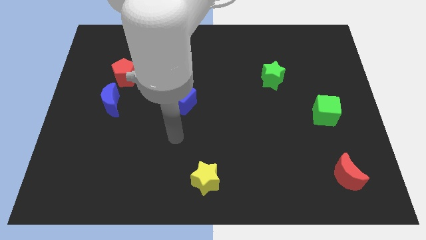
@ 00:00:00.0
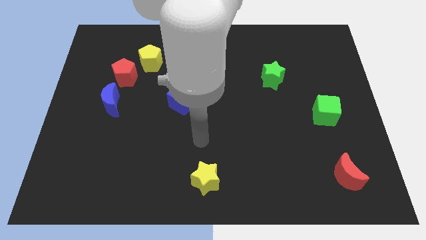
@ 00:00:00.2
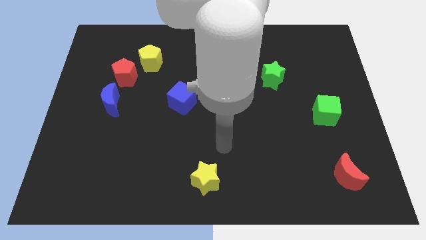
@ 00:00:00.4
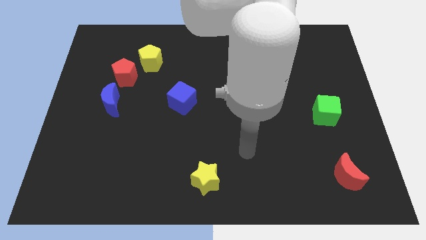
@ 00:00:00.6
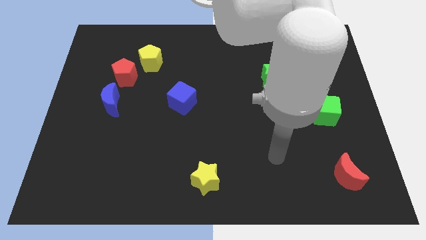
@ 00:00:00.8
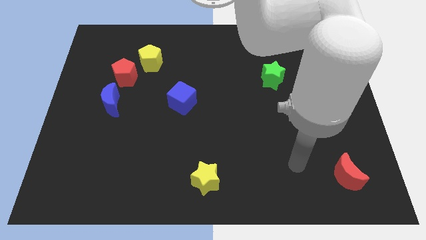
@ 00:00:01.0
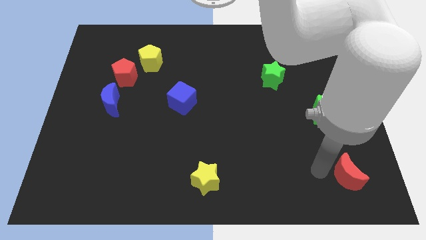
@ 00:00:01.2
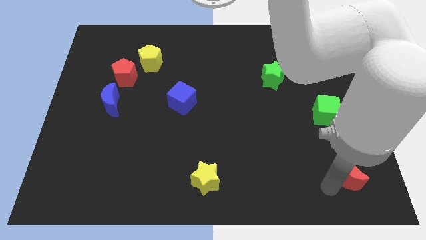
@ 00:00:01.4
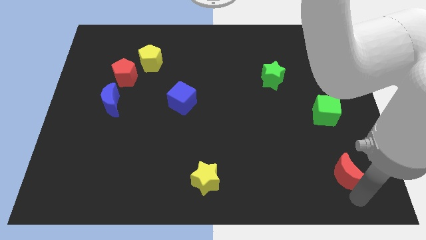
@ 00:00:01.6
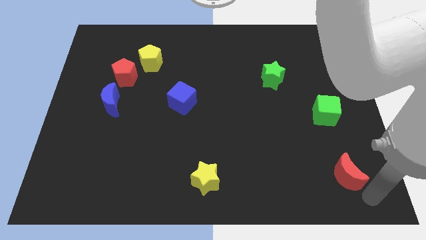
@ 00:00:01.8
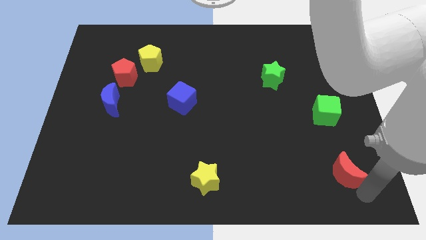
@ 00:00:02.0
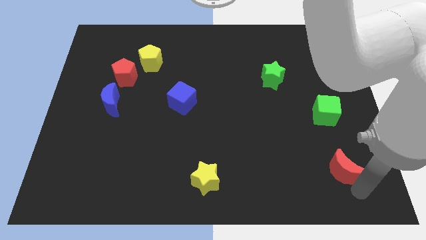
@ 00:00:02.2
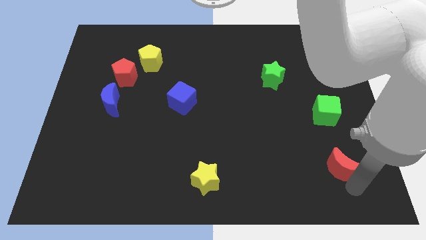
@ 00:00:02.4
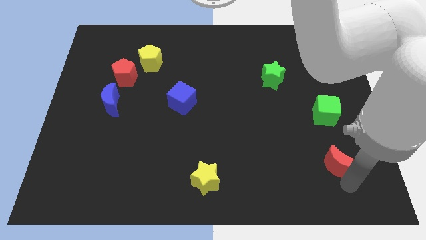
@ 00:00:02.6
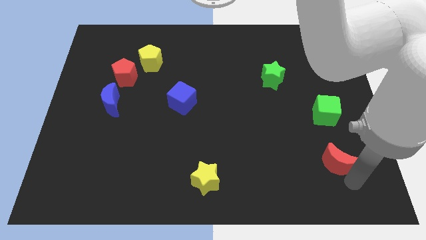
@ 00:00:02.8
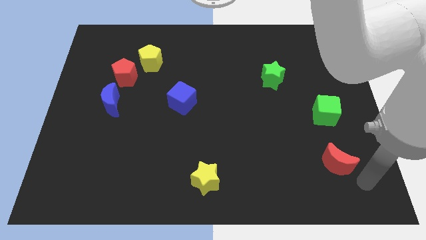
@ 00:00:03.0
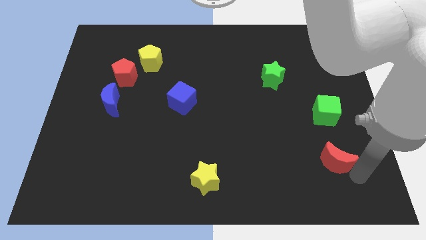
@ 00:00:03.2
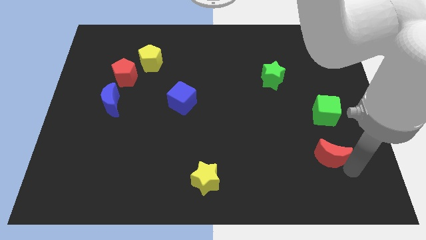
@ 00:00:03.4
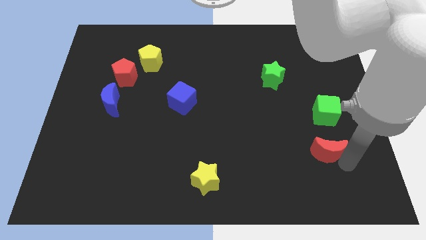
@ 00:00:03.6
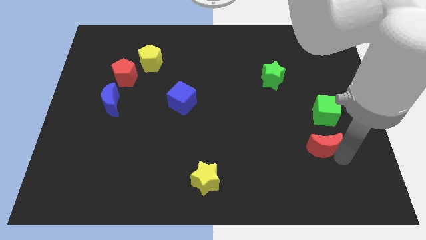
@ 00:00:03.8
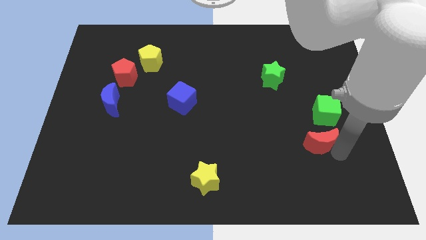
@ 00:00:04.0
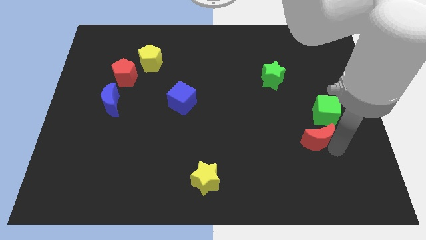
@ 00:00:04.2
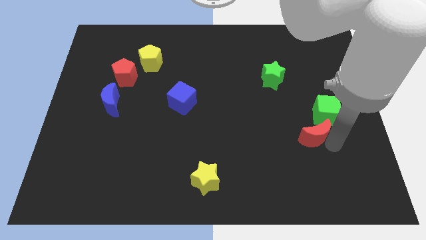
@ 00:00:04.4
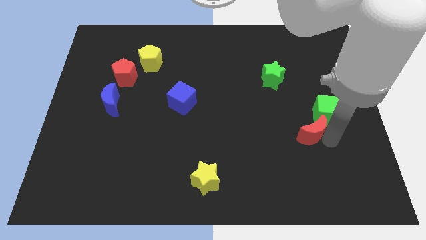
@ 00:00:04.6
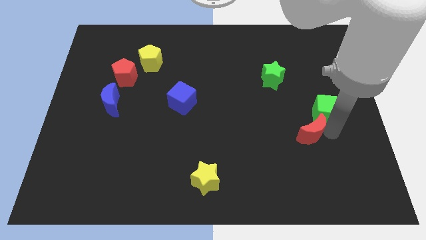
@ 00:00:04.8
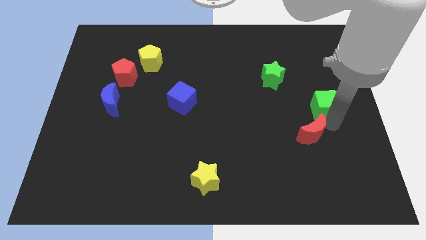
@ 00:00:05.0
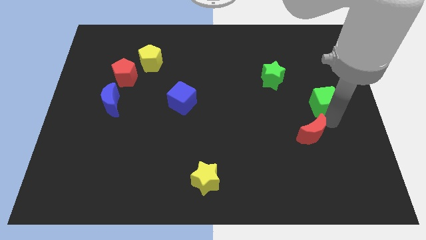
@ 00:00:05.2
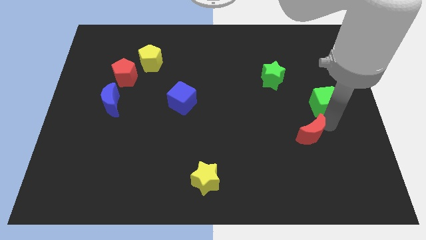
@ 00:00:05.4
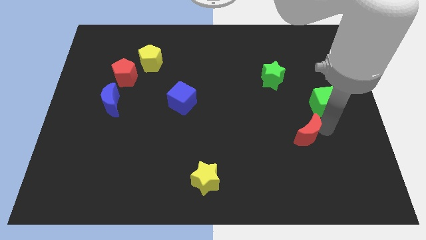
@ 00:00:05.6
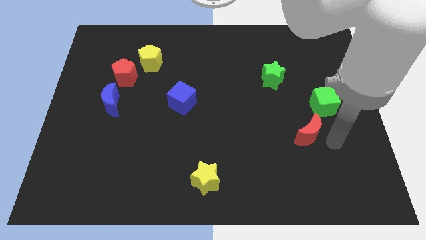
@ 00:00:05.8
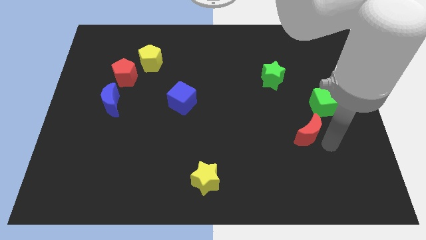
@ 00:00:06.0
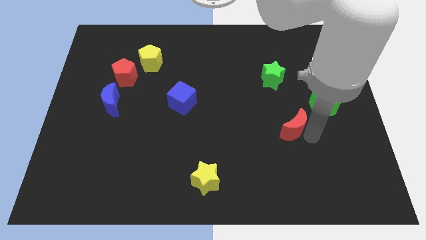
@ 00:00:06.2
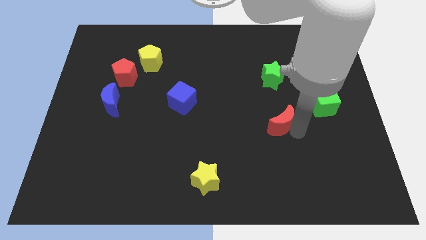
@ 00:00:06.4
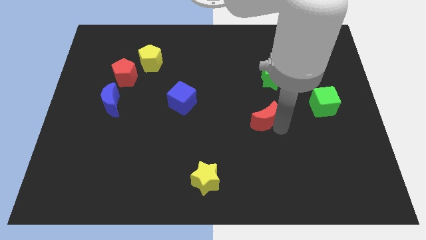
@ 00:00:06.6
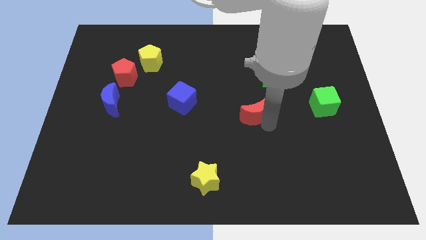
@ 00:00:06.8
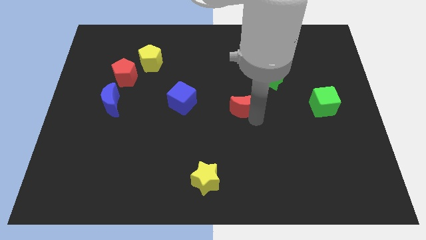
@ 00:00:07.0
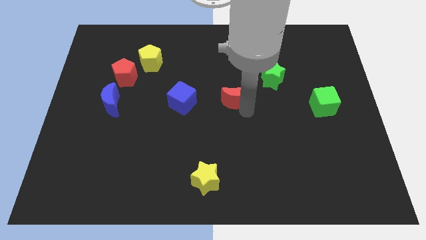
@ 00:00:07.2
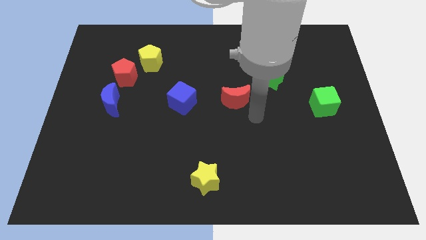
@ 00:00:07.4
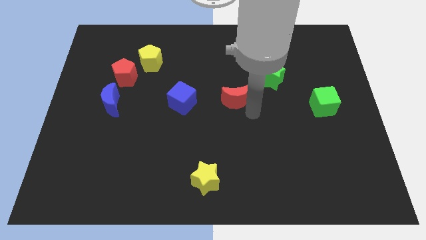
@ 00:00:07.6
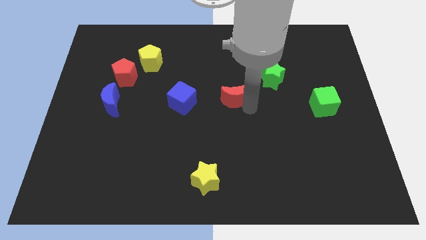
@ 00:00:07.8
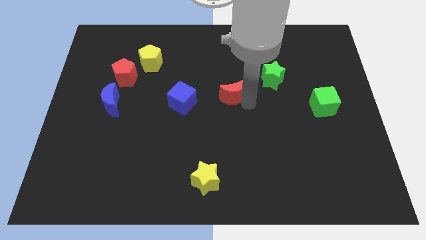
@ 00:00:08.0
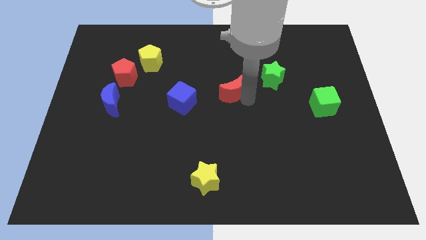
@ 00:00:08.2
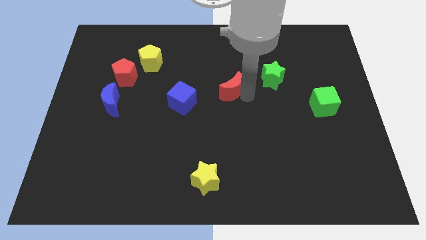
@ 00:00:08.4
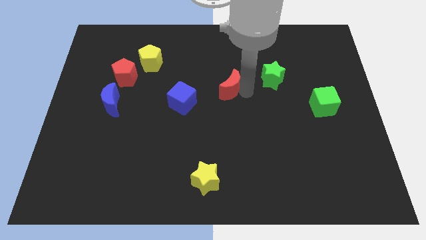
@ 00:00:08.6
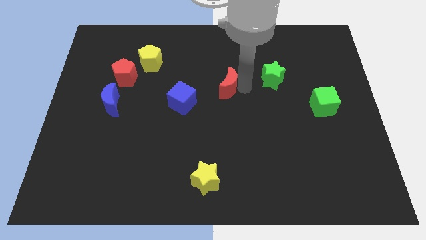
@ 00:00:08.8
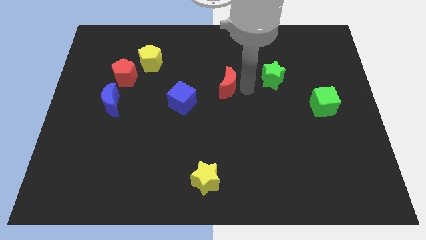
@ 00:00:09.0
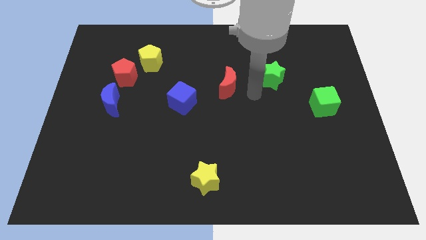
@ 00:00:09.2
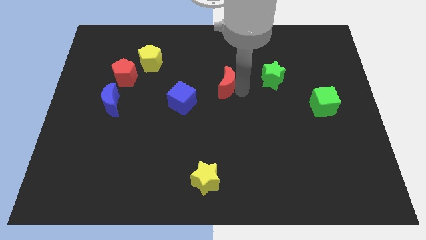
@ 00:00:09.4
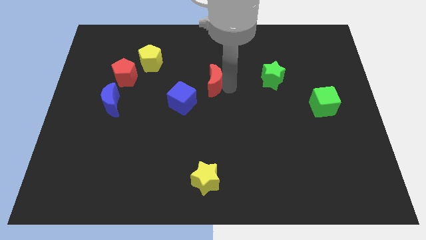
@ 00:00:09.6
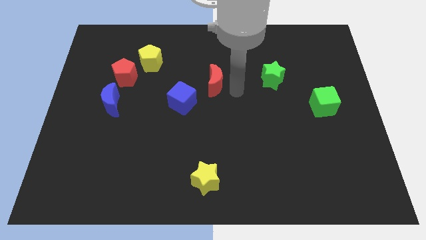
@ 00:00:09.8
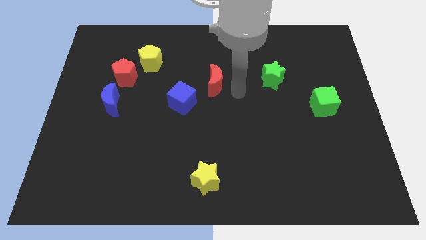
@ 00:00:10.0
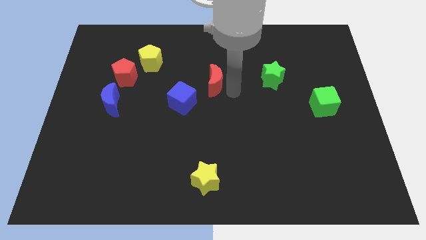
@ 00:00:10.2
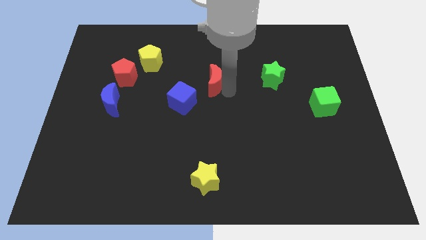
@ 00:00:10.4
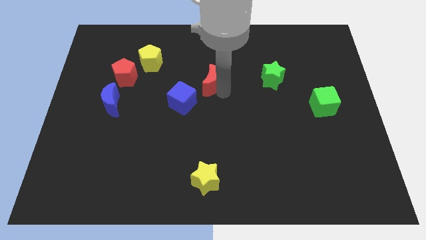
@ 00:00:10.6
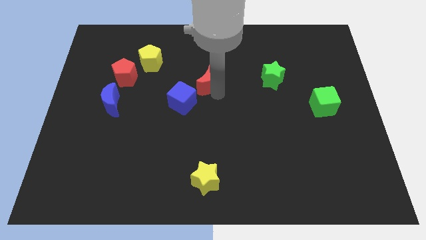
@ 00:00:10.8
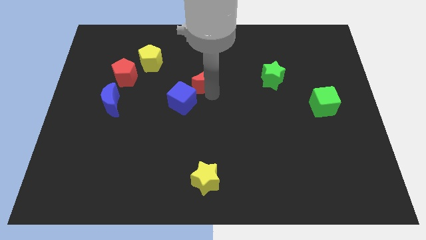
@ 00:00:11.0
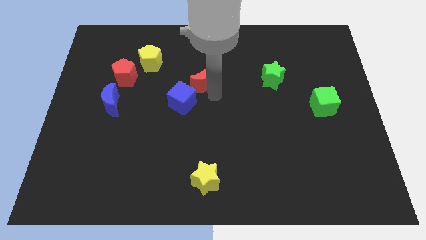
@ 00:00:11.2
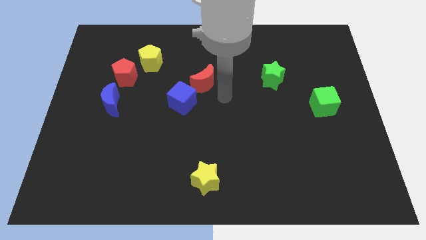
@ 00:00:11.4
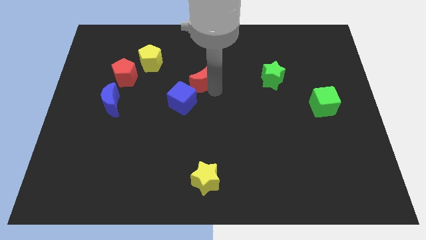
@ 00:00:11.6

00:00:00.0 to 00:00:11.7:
push the red moon to the top side of the blue cube

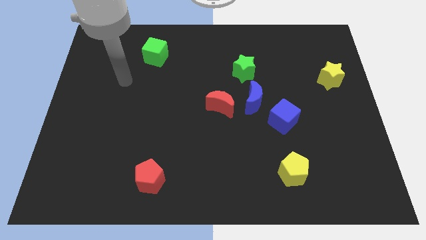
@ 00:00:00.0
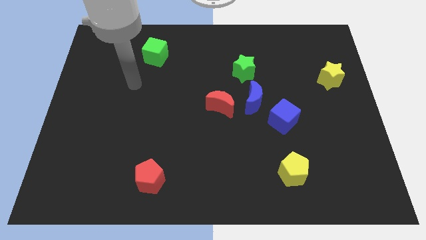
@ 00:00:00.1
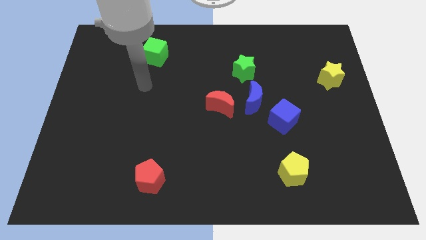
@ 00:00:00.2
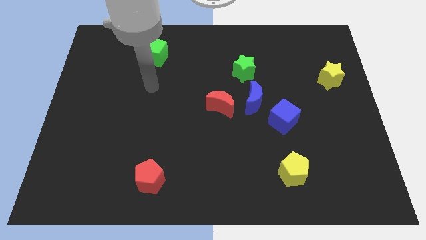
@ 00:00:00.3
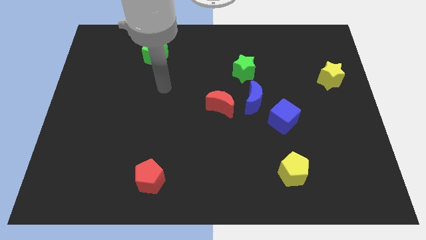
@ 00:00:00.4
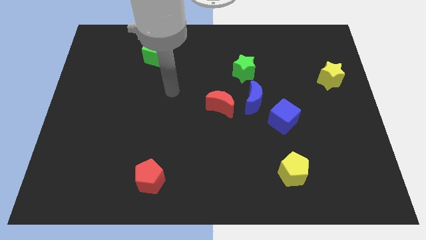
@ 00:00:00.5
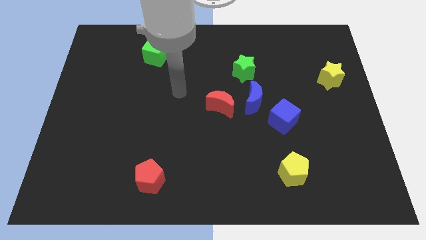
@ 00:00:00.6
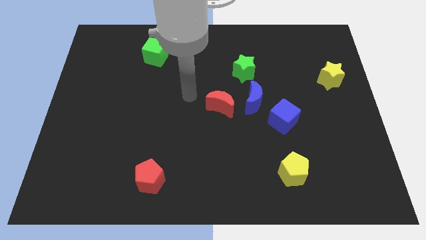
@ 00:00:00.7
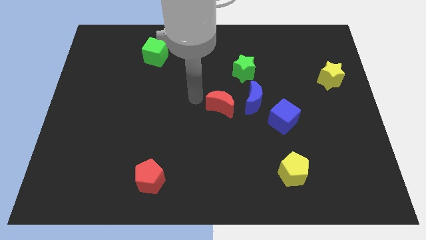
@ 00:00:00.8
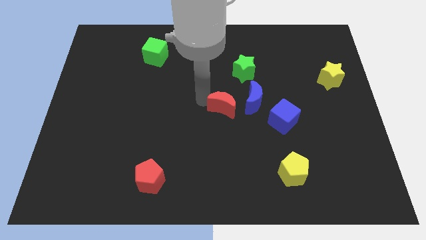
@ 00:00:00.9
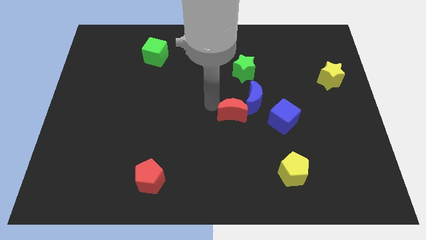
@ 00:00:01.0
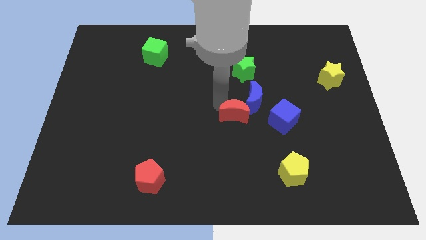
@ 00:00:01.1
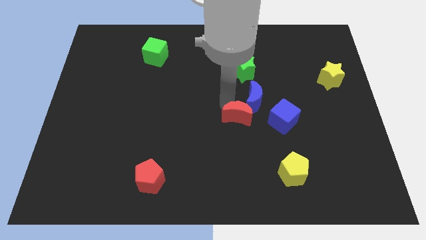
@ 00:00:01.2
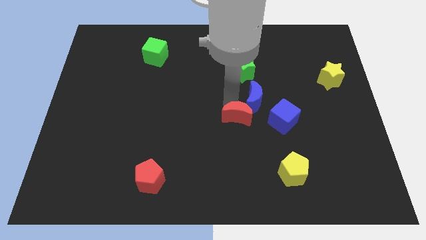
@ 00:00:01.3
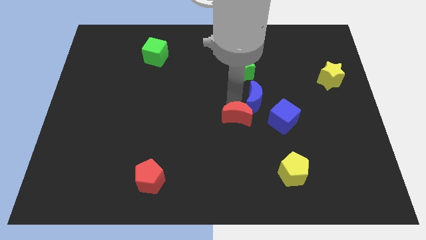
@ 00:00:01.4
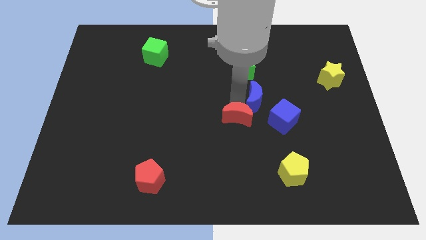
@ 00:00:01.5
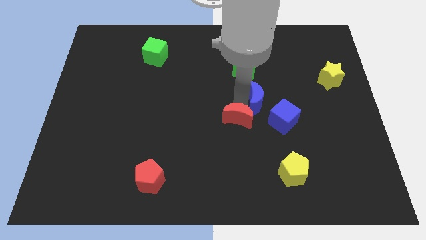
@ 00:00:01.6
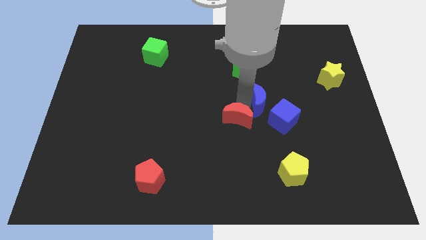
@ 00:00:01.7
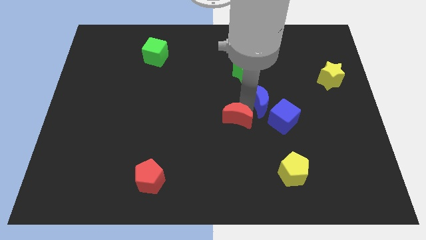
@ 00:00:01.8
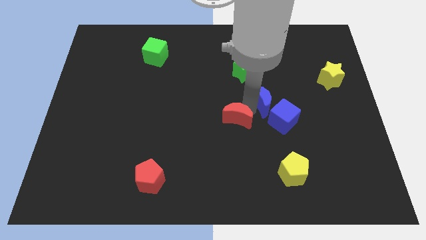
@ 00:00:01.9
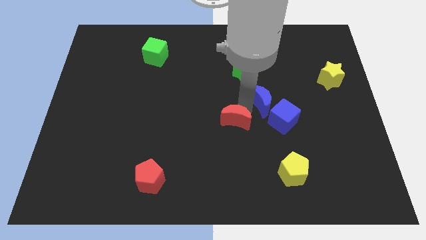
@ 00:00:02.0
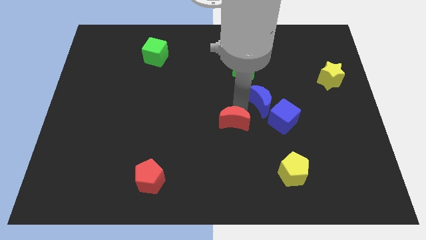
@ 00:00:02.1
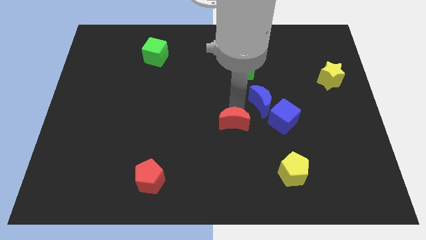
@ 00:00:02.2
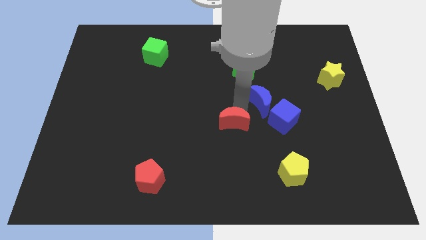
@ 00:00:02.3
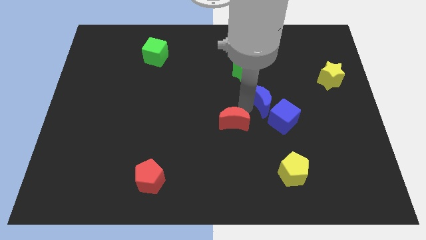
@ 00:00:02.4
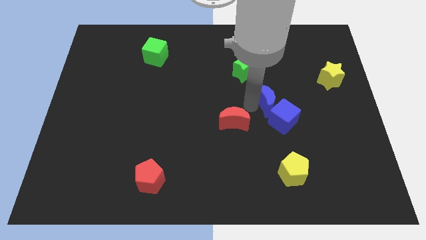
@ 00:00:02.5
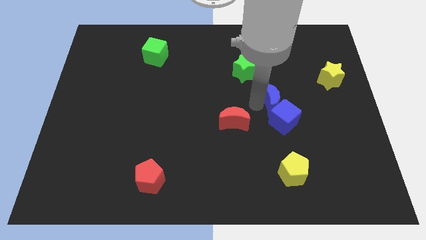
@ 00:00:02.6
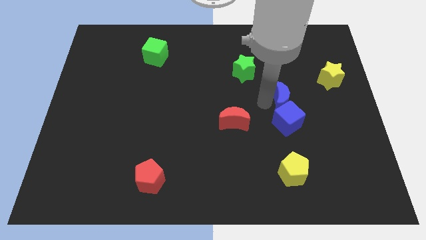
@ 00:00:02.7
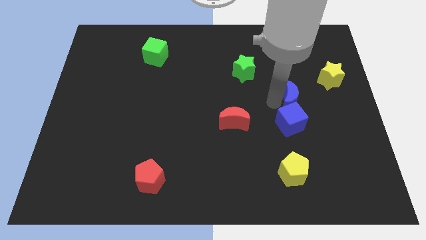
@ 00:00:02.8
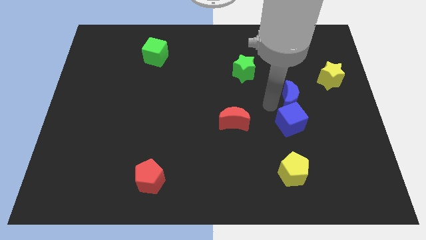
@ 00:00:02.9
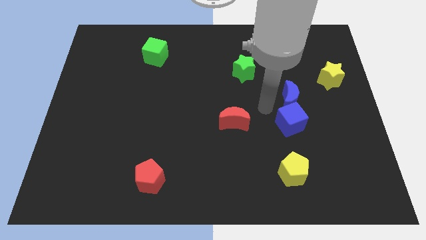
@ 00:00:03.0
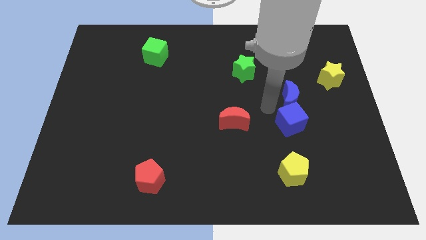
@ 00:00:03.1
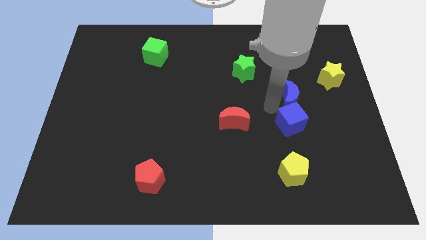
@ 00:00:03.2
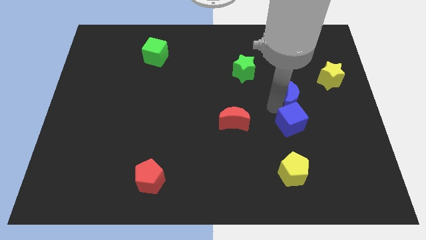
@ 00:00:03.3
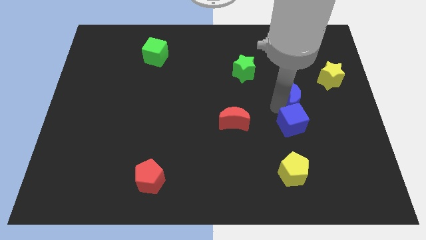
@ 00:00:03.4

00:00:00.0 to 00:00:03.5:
put the blue moon to the bottom left side of the yellow star
